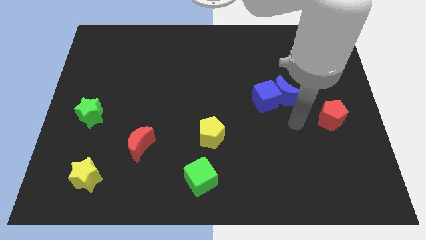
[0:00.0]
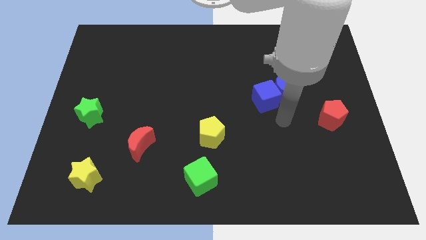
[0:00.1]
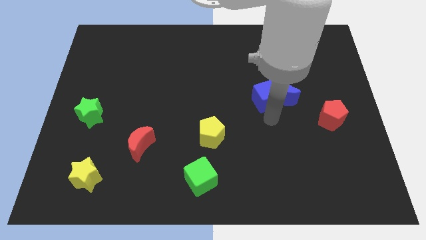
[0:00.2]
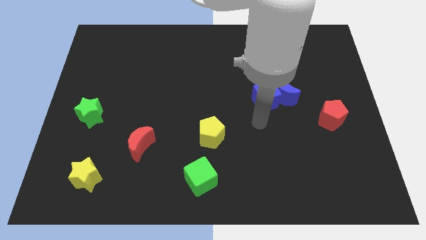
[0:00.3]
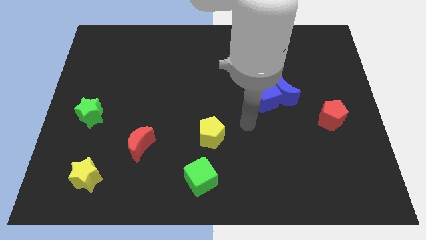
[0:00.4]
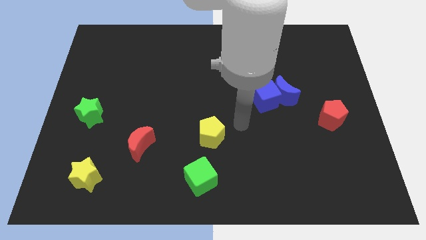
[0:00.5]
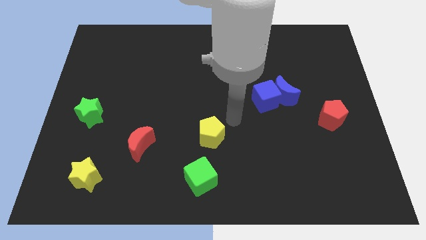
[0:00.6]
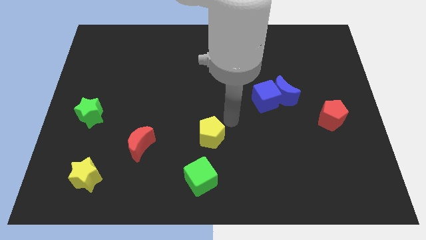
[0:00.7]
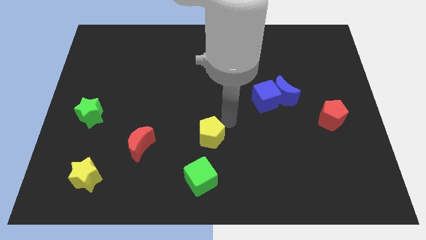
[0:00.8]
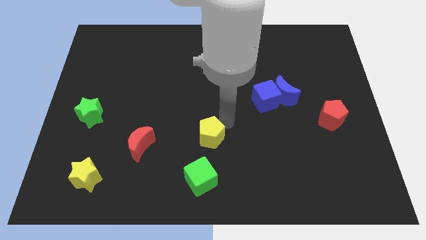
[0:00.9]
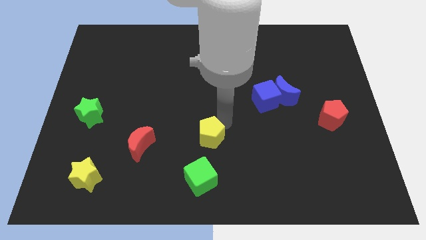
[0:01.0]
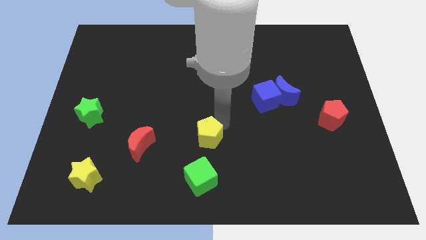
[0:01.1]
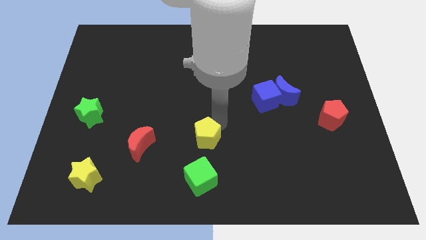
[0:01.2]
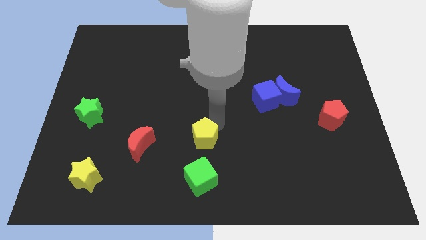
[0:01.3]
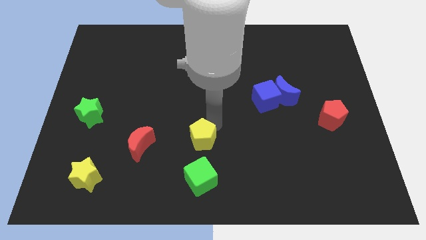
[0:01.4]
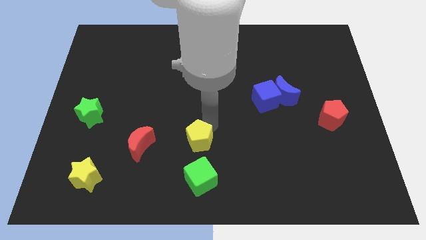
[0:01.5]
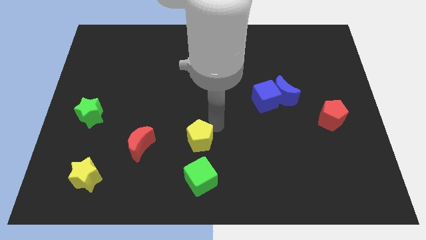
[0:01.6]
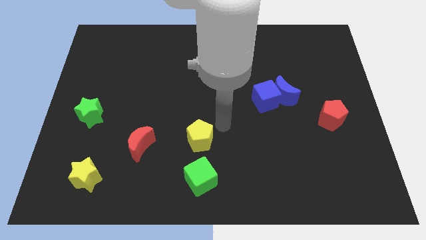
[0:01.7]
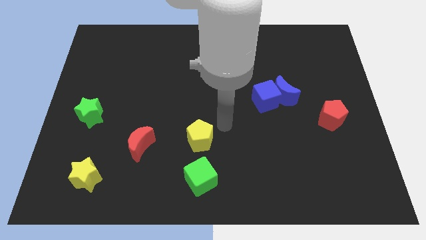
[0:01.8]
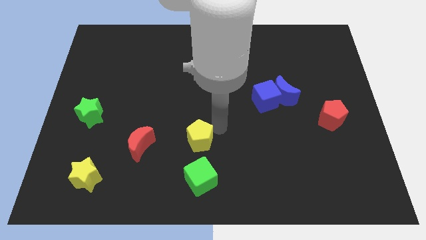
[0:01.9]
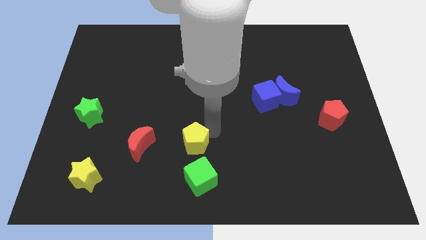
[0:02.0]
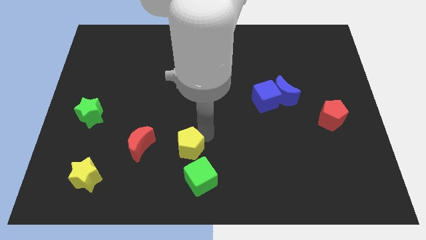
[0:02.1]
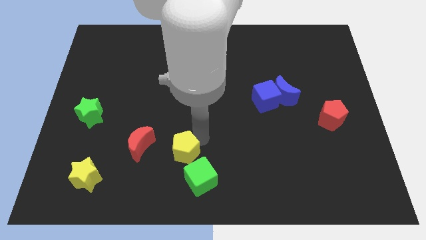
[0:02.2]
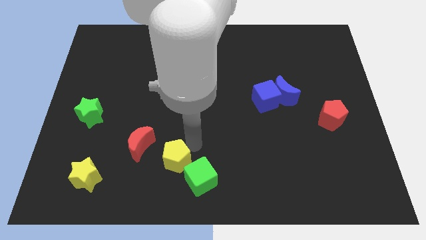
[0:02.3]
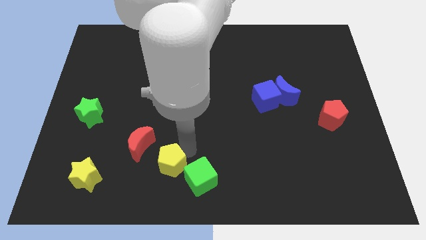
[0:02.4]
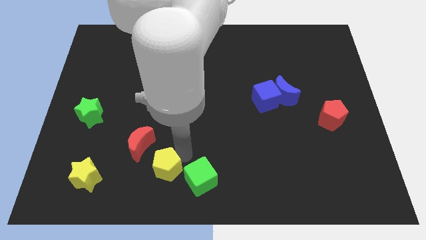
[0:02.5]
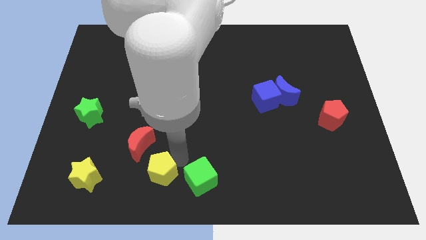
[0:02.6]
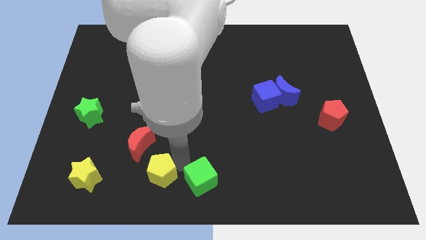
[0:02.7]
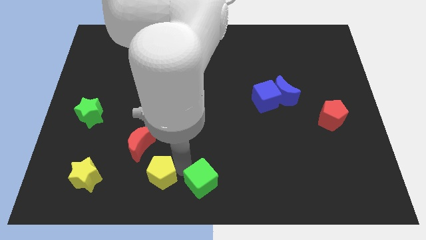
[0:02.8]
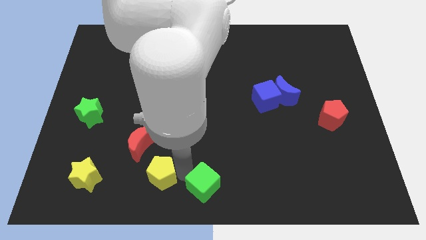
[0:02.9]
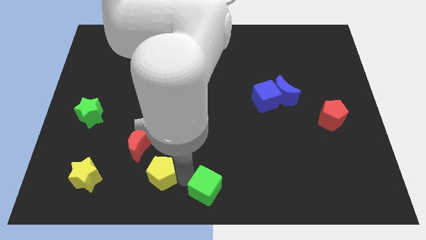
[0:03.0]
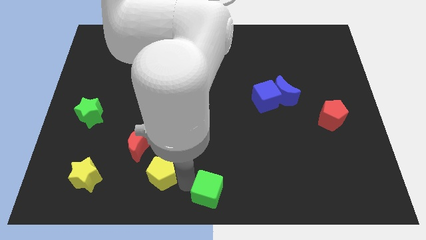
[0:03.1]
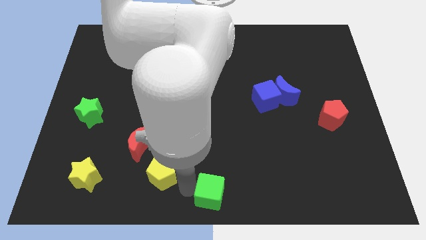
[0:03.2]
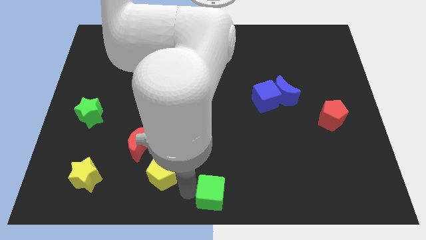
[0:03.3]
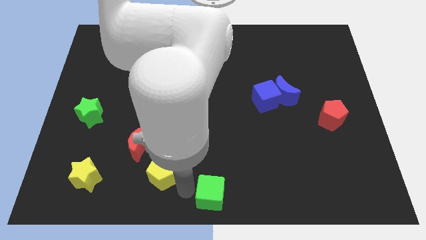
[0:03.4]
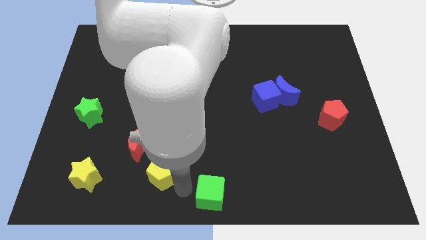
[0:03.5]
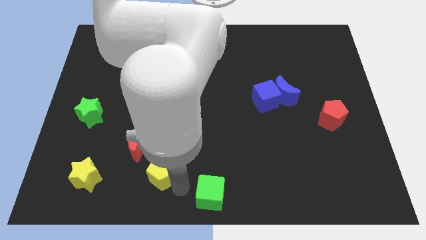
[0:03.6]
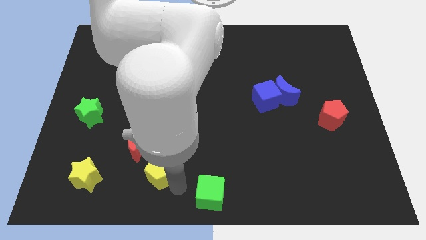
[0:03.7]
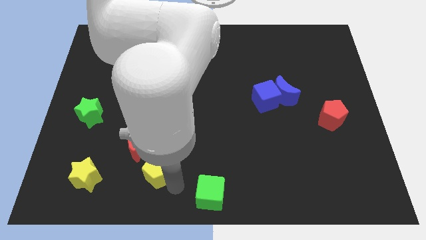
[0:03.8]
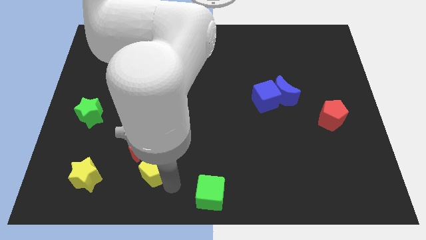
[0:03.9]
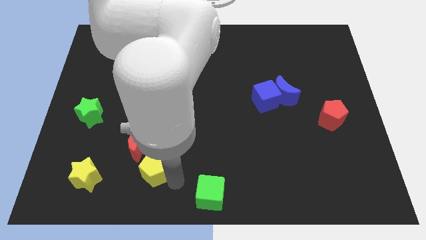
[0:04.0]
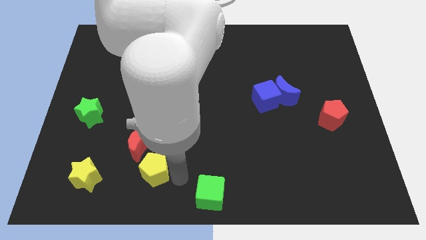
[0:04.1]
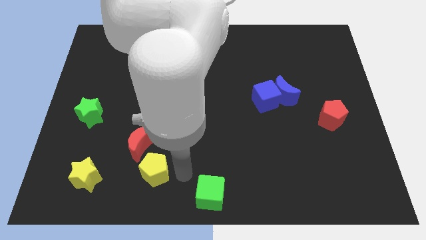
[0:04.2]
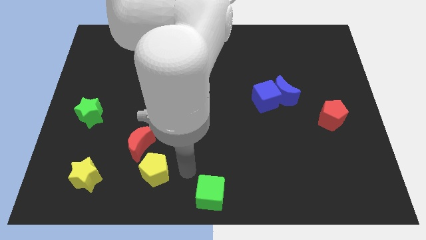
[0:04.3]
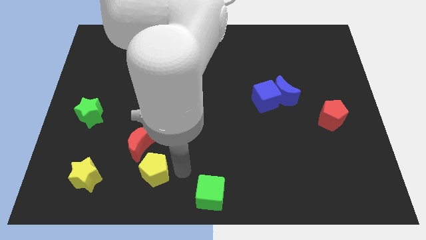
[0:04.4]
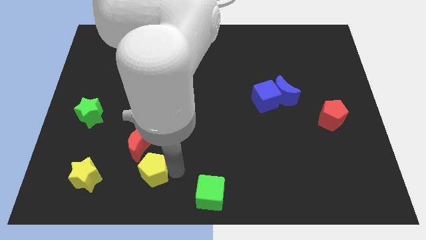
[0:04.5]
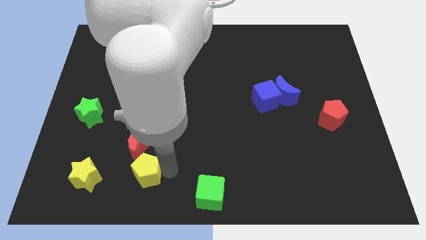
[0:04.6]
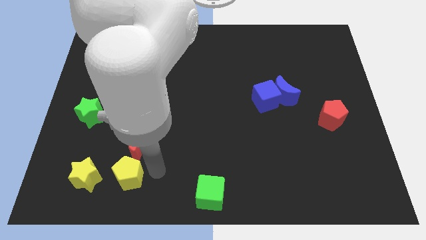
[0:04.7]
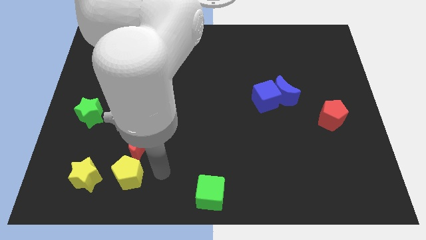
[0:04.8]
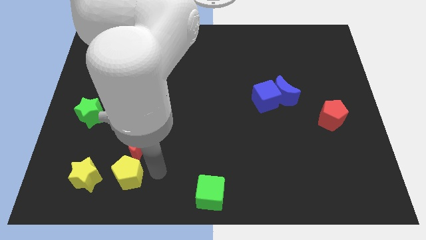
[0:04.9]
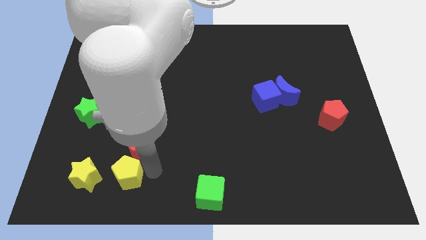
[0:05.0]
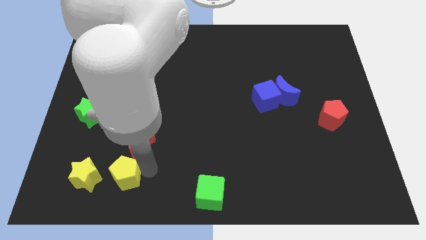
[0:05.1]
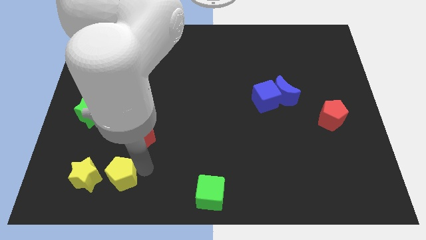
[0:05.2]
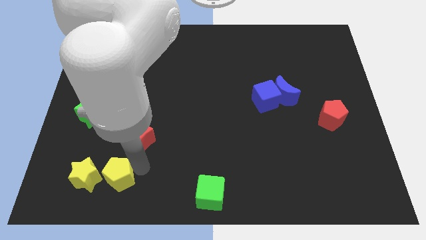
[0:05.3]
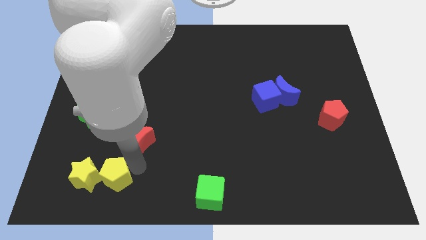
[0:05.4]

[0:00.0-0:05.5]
move the yellow pentagon close to the yellow star

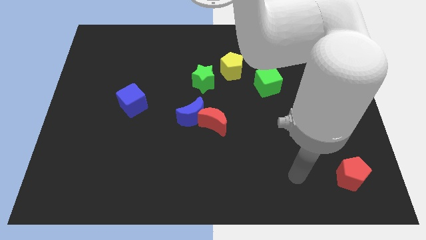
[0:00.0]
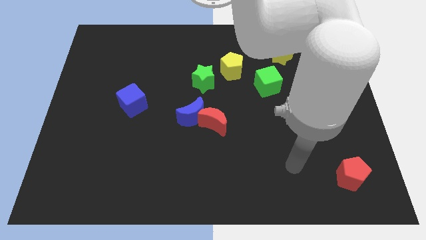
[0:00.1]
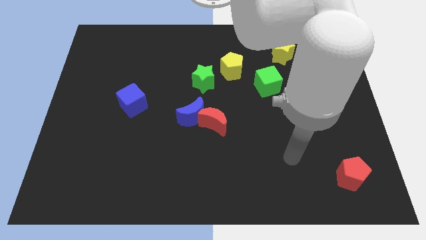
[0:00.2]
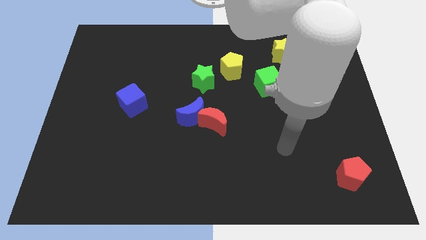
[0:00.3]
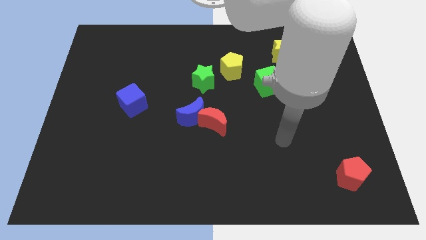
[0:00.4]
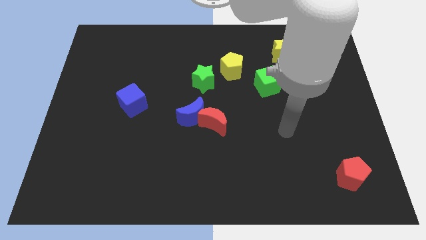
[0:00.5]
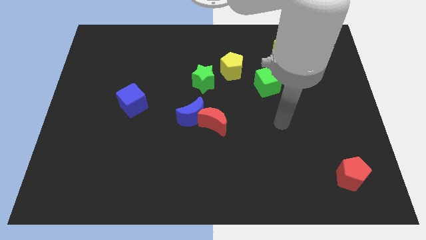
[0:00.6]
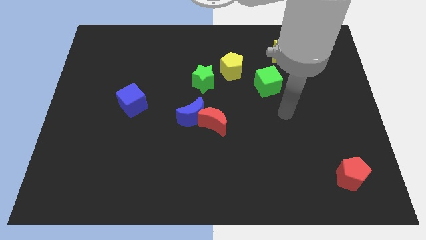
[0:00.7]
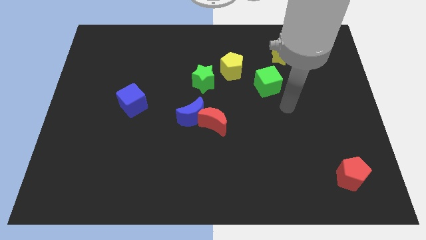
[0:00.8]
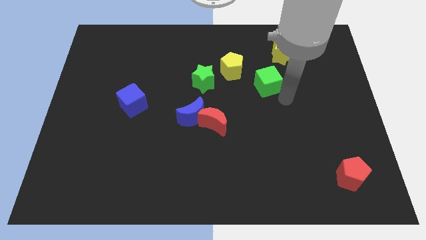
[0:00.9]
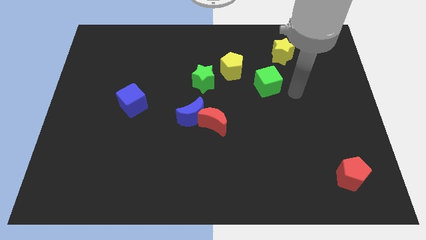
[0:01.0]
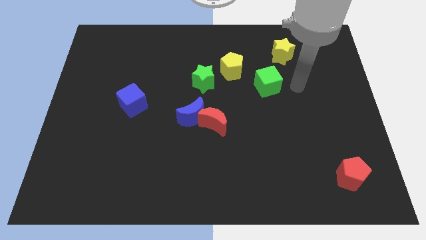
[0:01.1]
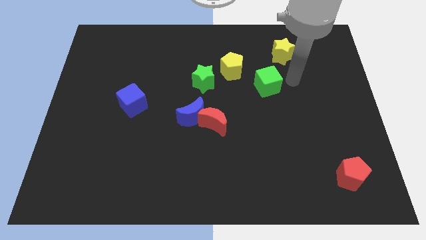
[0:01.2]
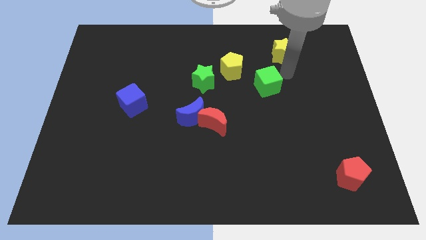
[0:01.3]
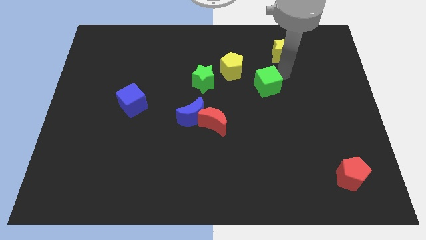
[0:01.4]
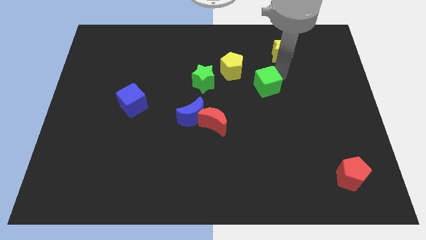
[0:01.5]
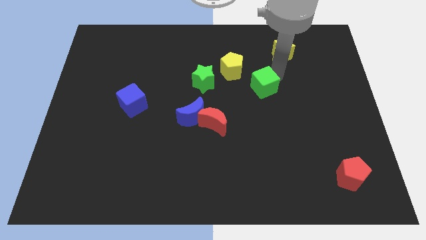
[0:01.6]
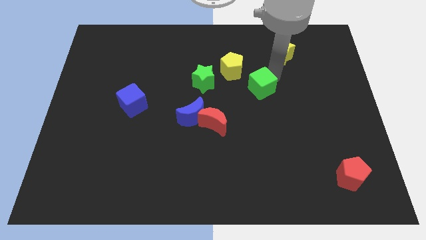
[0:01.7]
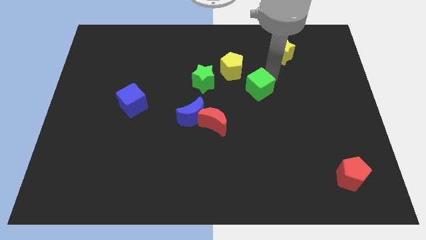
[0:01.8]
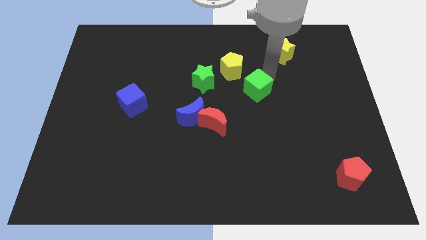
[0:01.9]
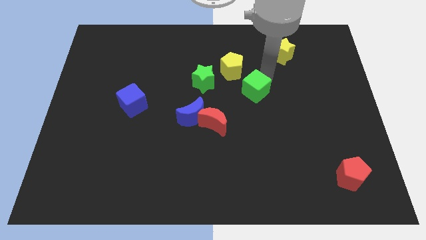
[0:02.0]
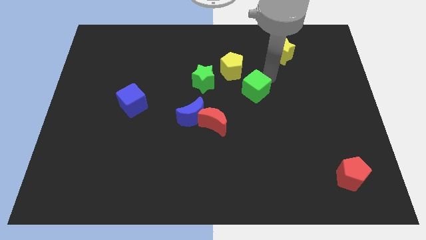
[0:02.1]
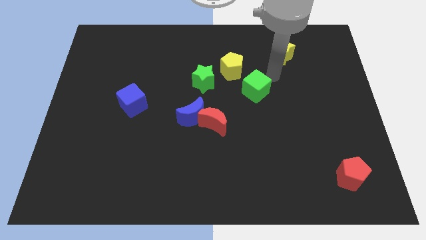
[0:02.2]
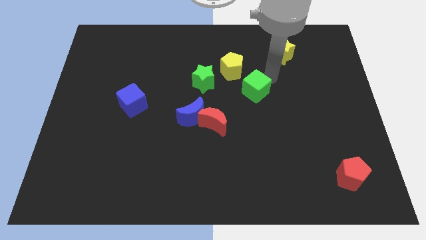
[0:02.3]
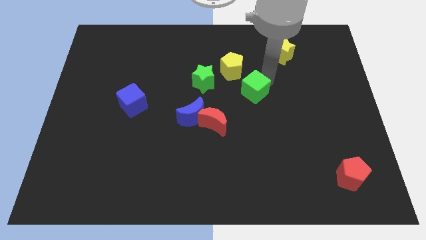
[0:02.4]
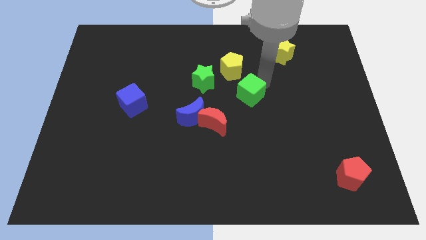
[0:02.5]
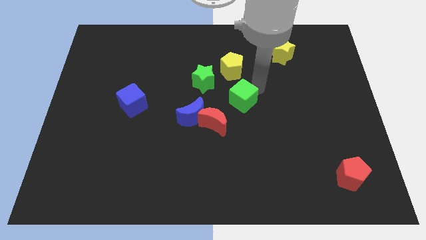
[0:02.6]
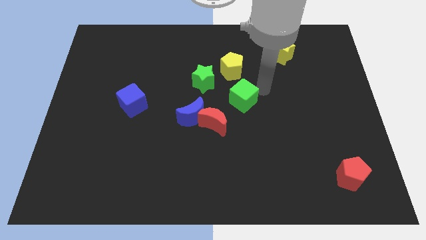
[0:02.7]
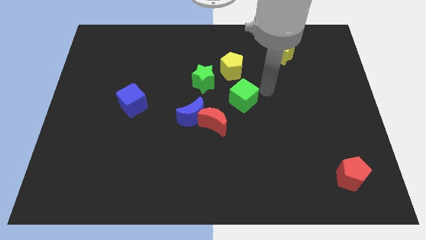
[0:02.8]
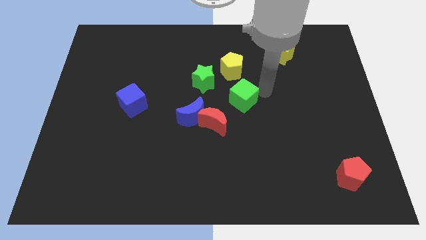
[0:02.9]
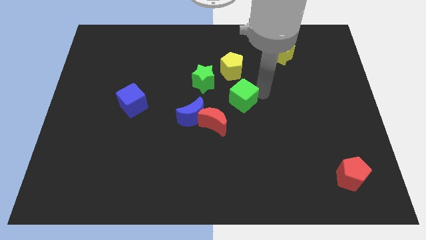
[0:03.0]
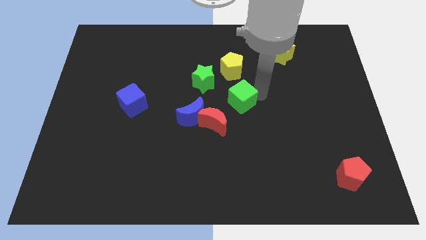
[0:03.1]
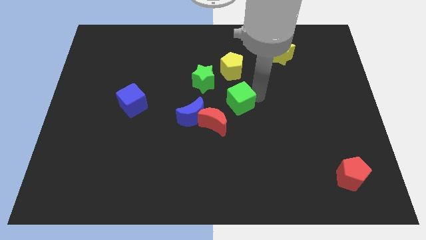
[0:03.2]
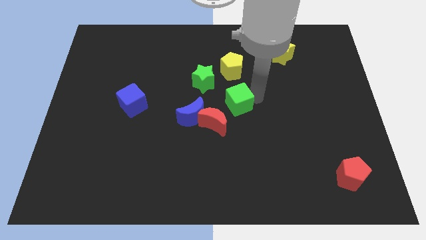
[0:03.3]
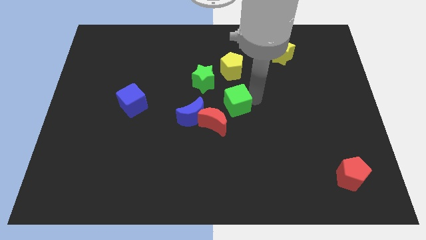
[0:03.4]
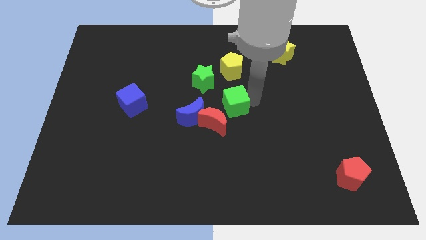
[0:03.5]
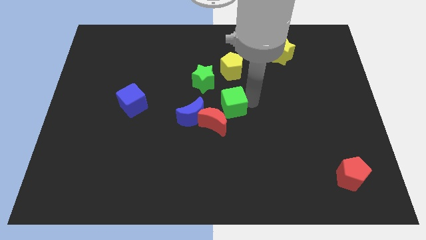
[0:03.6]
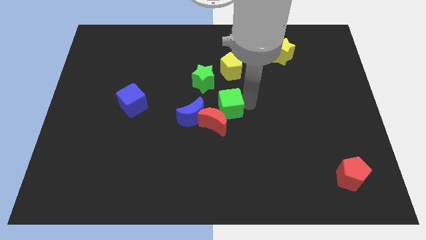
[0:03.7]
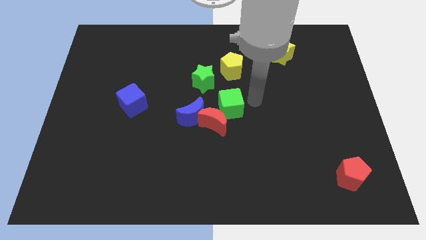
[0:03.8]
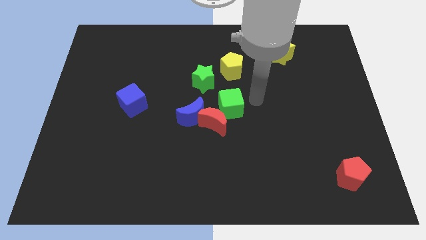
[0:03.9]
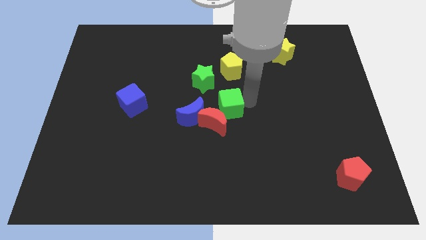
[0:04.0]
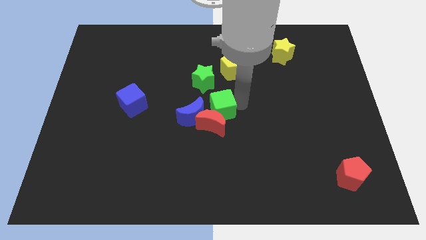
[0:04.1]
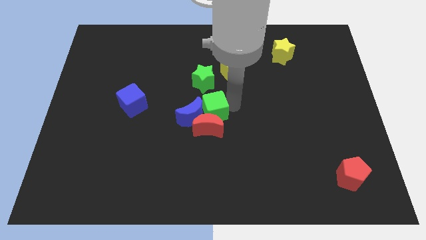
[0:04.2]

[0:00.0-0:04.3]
move the green cube to the blue moon
